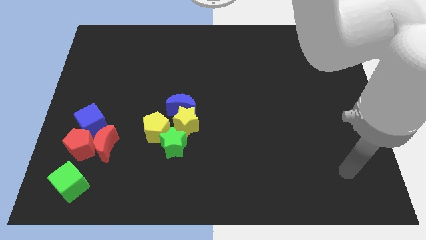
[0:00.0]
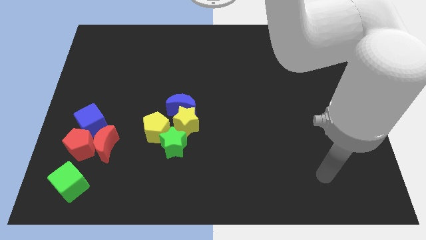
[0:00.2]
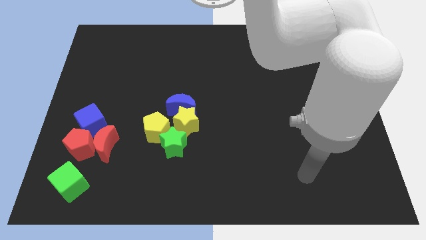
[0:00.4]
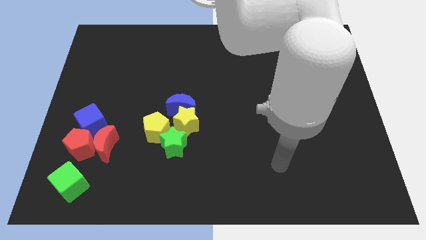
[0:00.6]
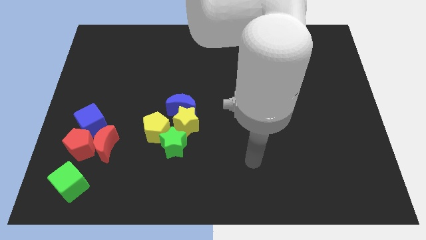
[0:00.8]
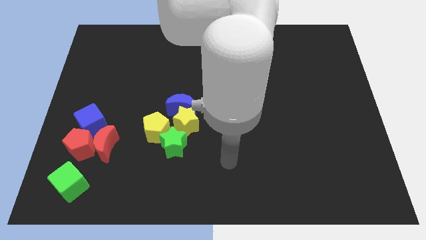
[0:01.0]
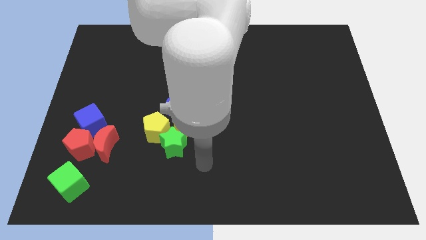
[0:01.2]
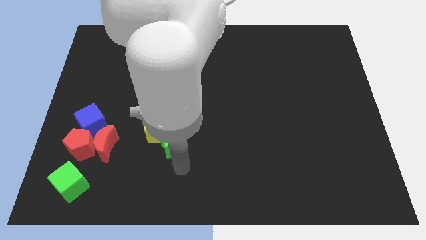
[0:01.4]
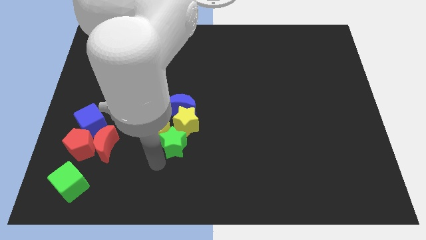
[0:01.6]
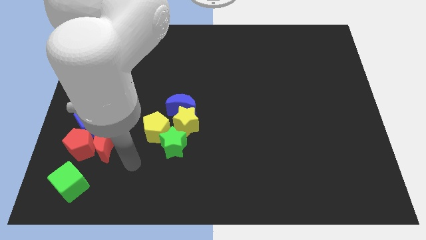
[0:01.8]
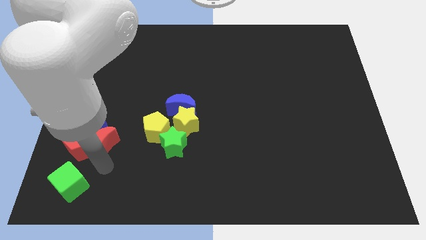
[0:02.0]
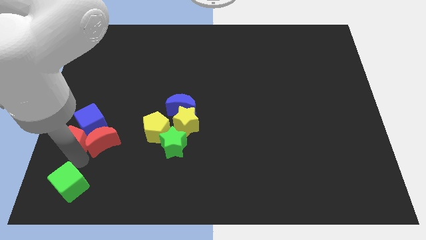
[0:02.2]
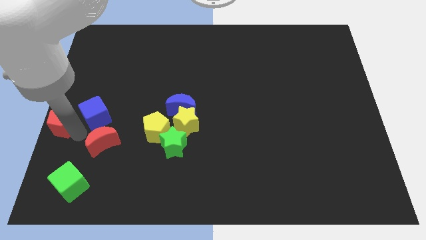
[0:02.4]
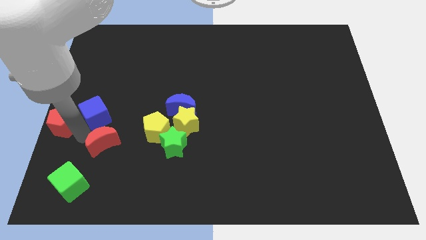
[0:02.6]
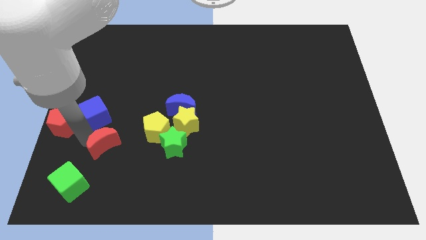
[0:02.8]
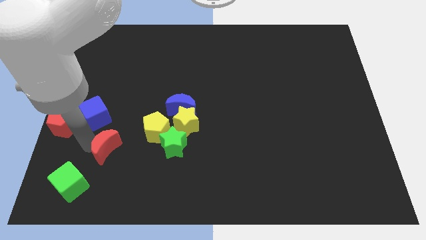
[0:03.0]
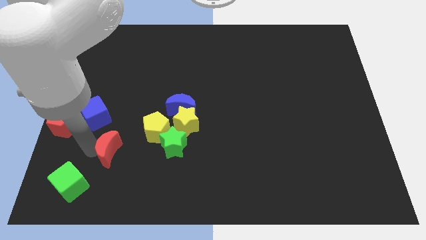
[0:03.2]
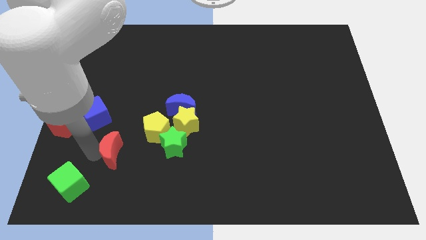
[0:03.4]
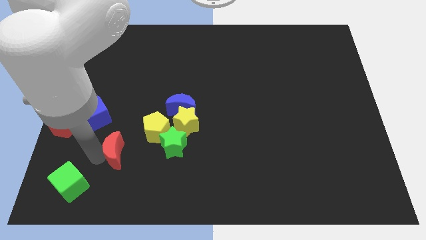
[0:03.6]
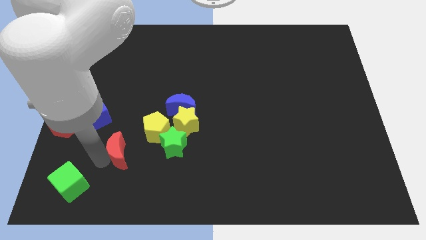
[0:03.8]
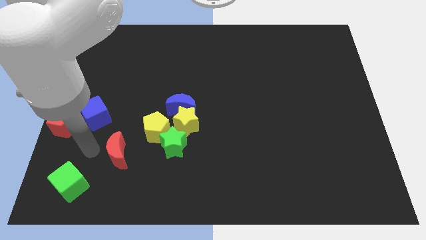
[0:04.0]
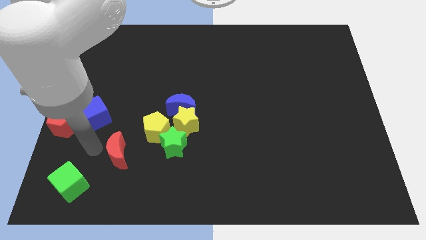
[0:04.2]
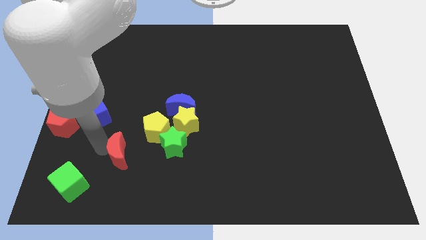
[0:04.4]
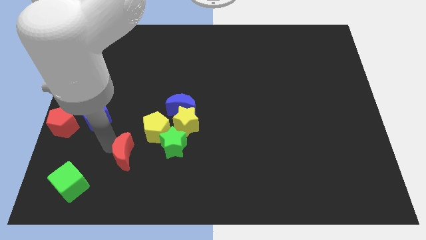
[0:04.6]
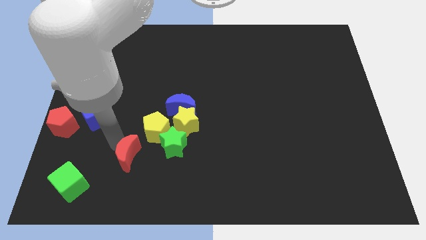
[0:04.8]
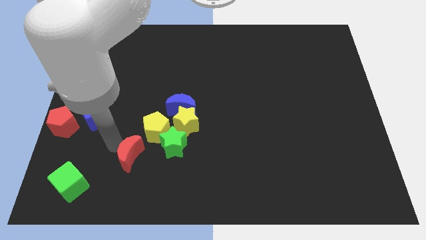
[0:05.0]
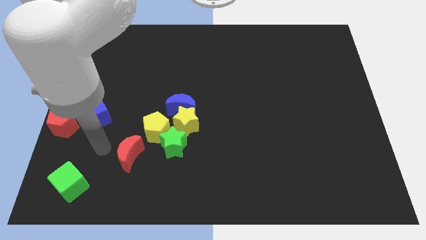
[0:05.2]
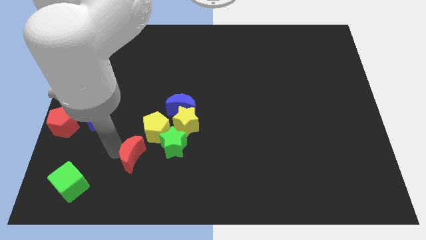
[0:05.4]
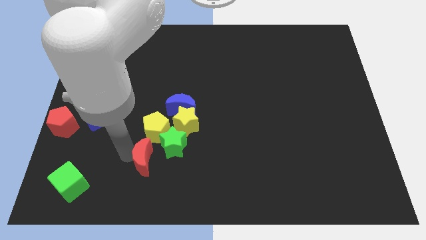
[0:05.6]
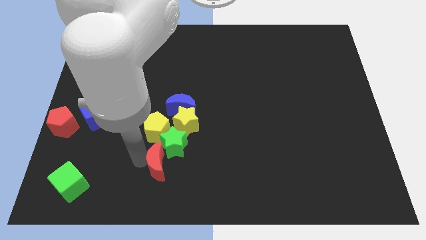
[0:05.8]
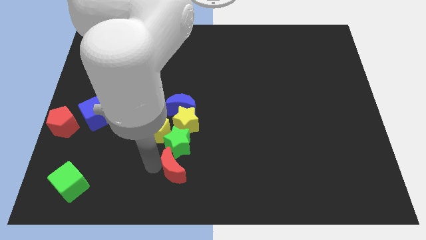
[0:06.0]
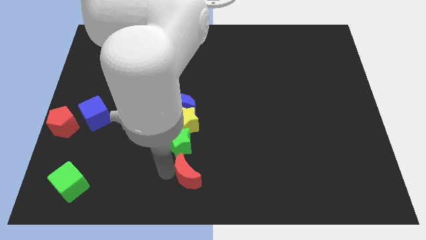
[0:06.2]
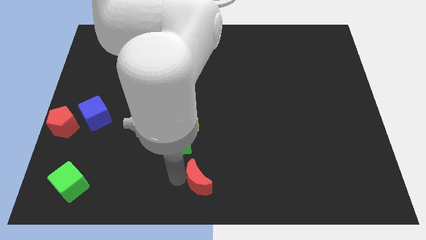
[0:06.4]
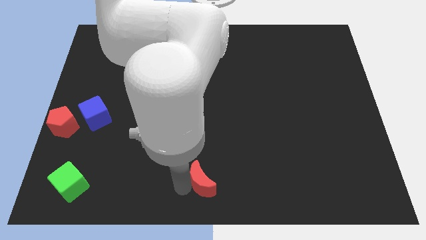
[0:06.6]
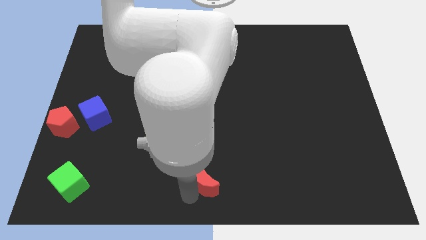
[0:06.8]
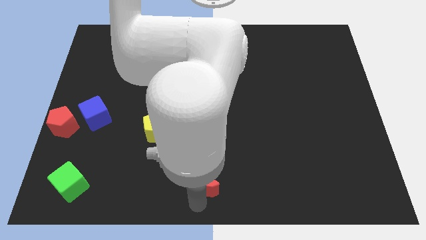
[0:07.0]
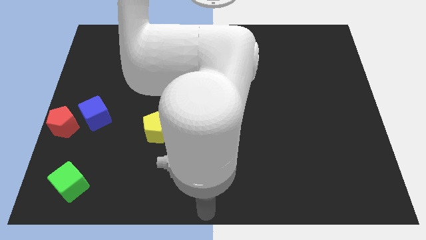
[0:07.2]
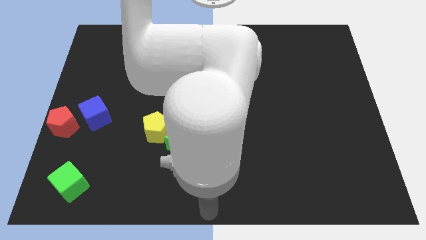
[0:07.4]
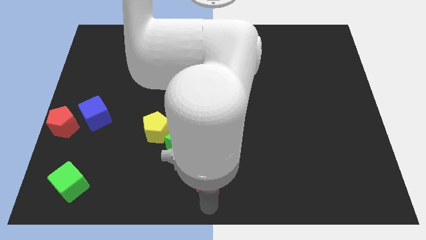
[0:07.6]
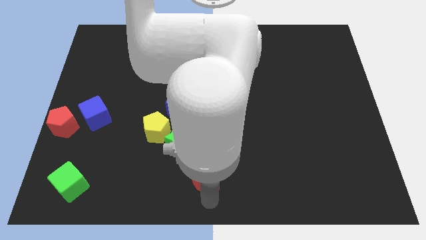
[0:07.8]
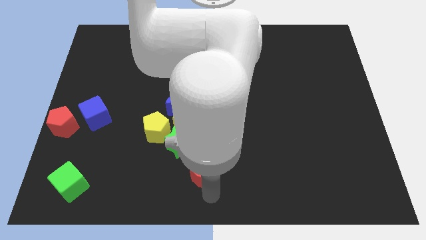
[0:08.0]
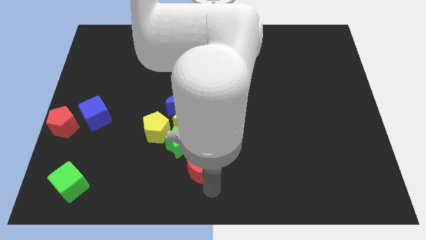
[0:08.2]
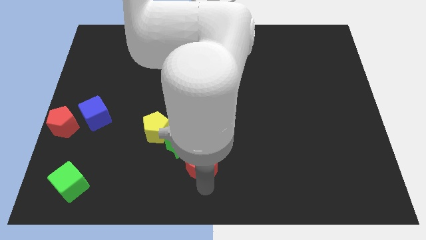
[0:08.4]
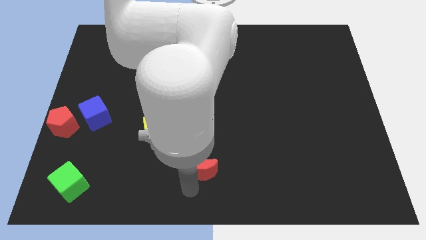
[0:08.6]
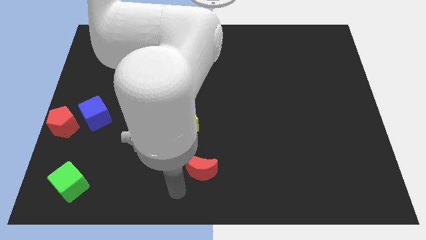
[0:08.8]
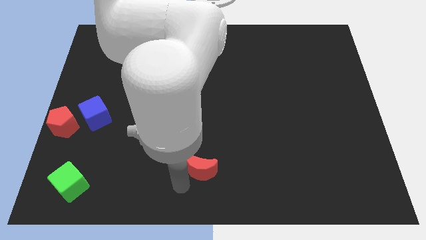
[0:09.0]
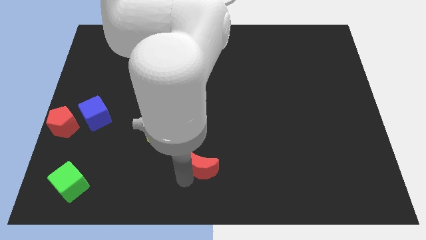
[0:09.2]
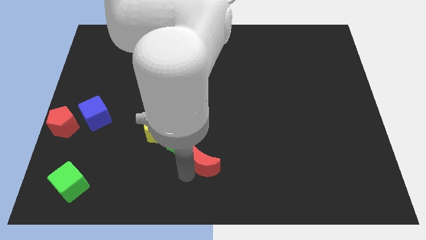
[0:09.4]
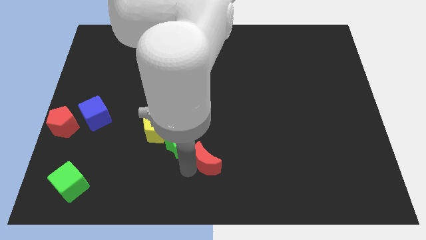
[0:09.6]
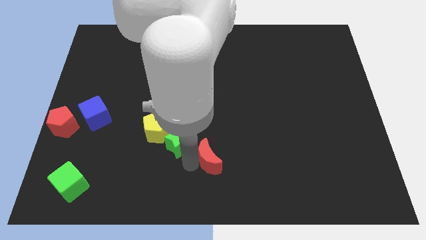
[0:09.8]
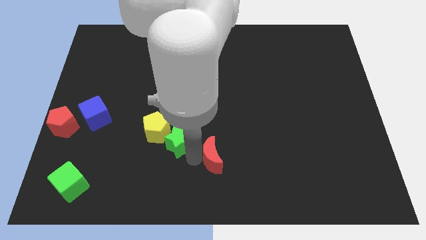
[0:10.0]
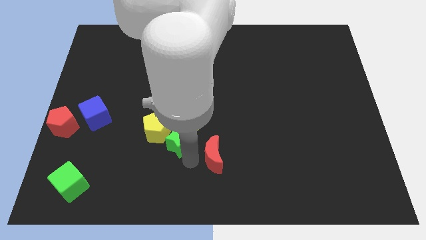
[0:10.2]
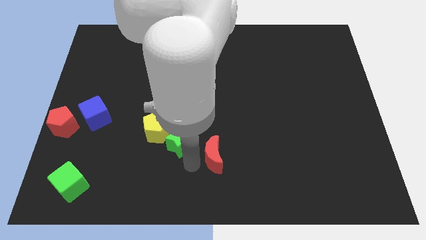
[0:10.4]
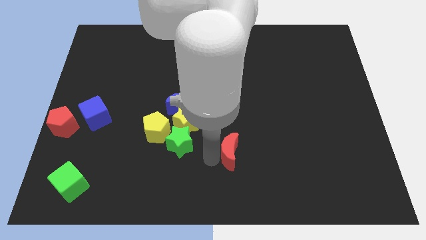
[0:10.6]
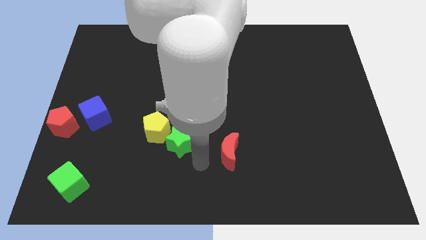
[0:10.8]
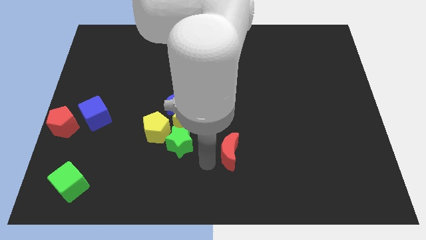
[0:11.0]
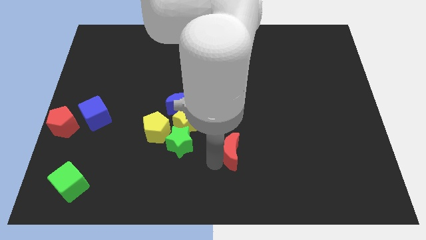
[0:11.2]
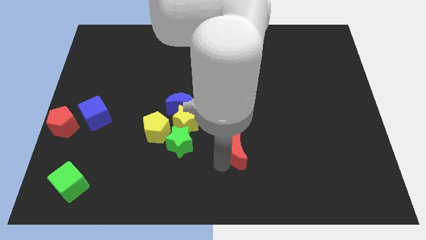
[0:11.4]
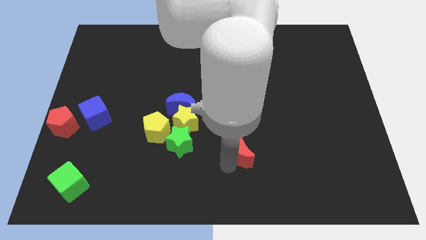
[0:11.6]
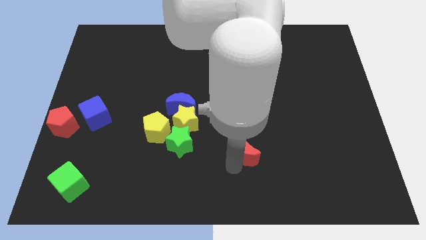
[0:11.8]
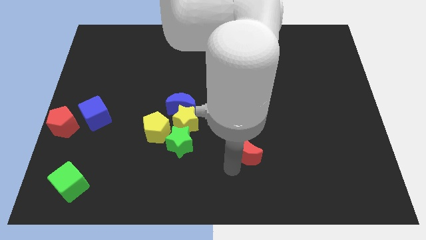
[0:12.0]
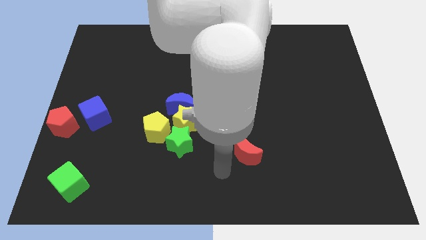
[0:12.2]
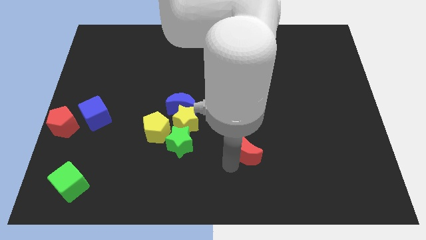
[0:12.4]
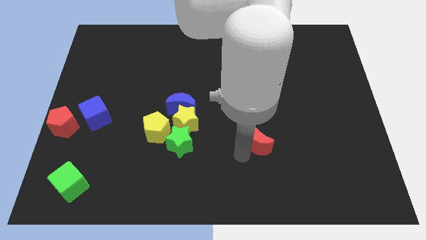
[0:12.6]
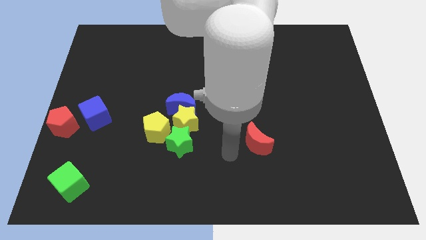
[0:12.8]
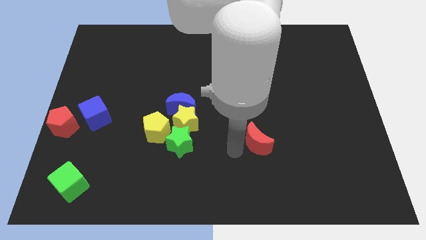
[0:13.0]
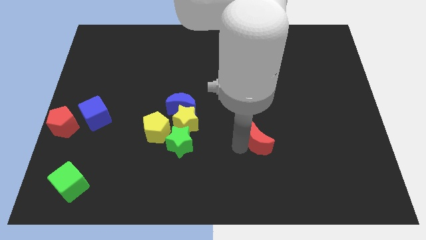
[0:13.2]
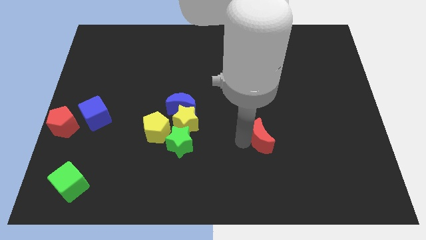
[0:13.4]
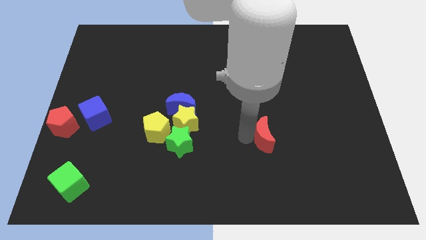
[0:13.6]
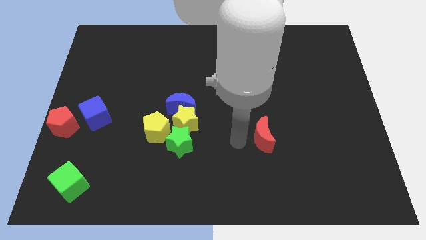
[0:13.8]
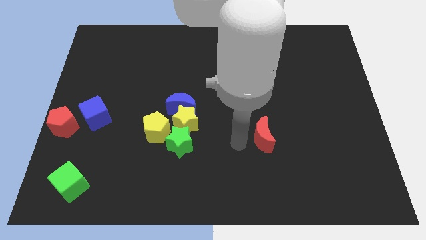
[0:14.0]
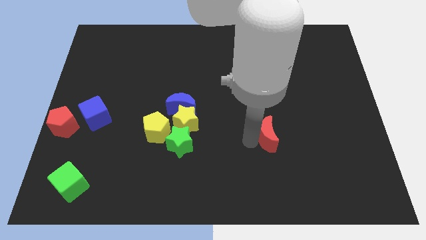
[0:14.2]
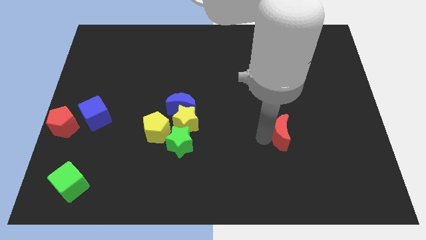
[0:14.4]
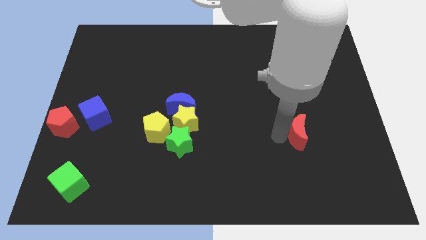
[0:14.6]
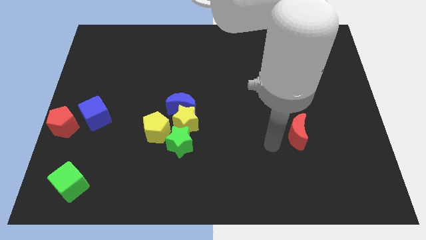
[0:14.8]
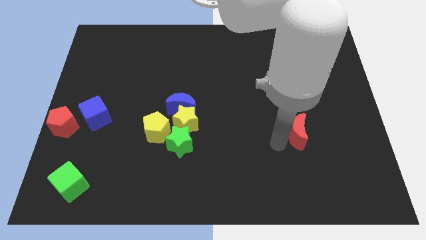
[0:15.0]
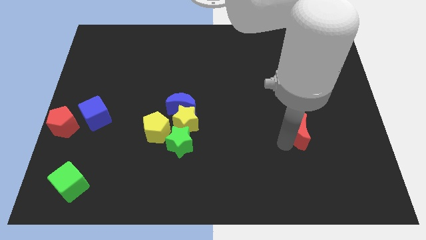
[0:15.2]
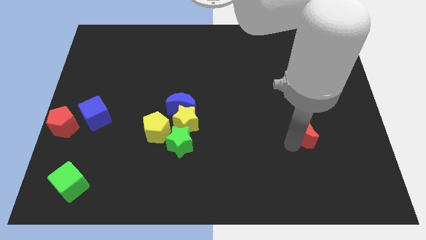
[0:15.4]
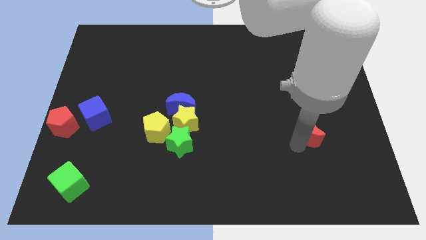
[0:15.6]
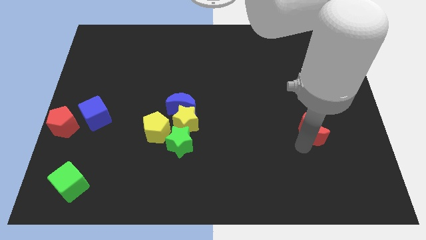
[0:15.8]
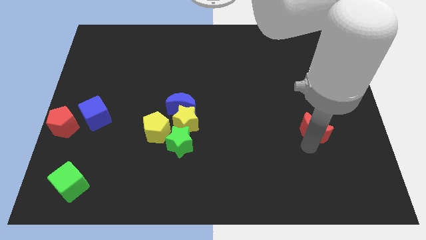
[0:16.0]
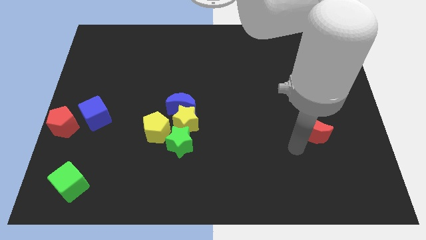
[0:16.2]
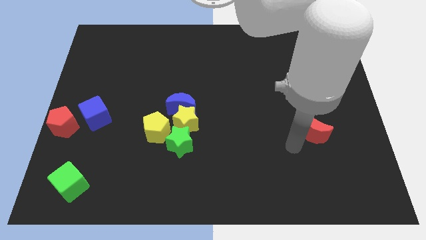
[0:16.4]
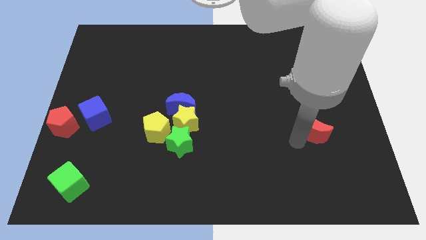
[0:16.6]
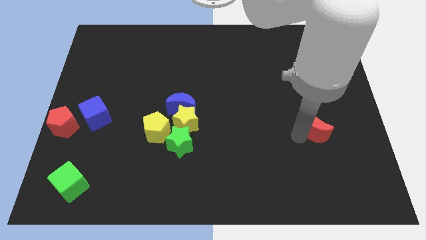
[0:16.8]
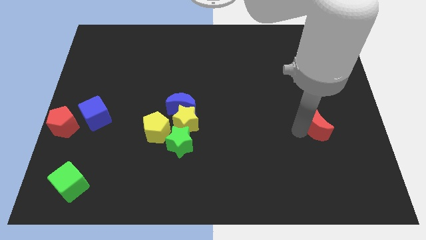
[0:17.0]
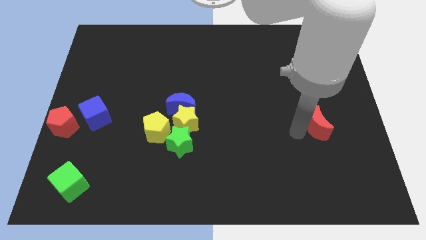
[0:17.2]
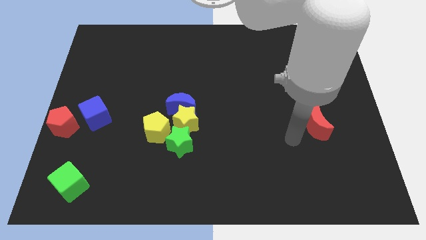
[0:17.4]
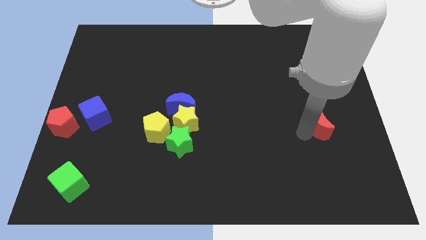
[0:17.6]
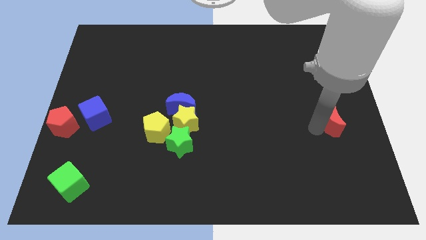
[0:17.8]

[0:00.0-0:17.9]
put the red moon to the right side of the board
